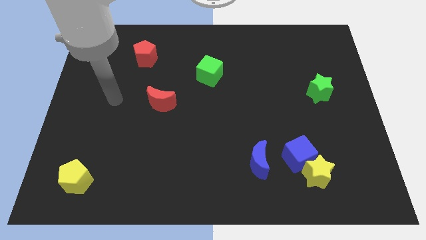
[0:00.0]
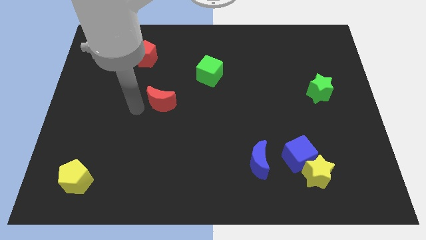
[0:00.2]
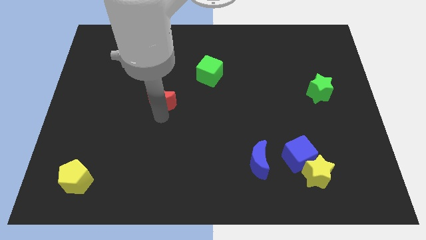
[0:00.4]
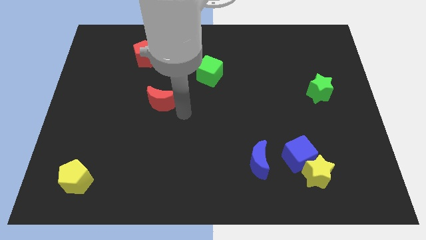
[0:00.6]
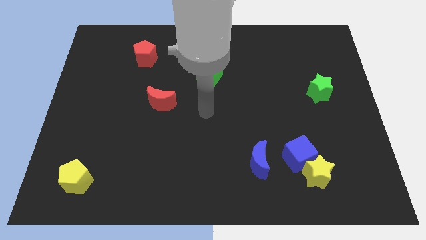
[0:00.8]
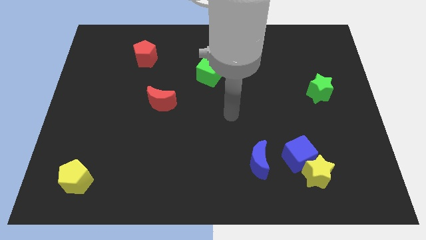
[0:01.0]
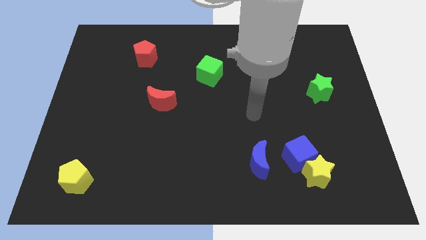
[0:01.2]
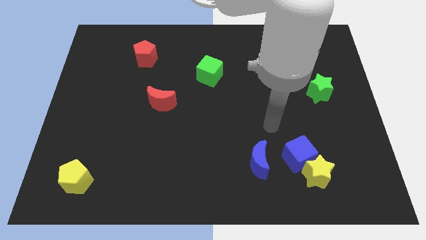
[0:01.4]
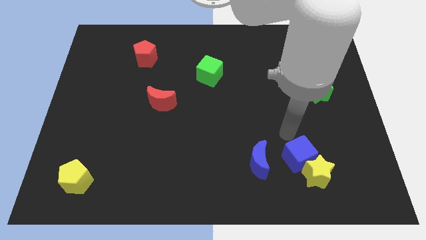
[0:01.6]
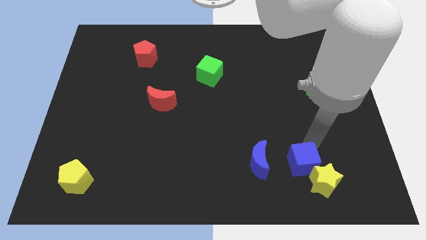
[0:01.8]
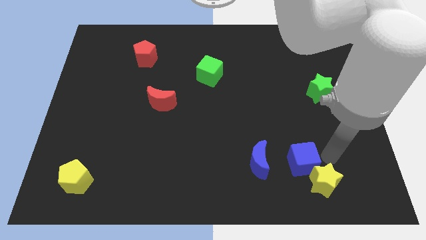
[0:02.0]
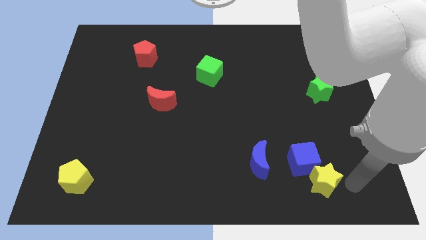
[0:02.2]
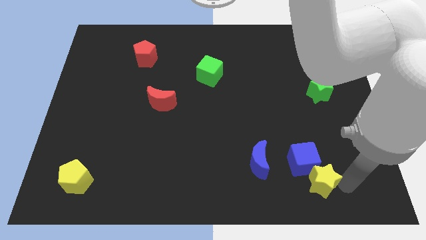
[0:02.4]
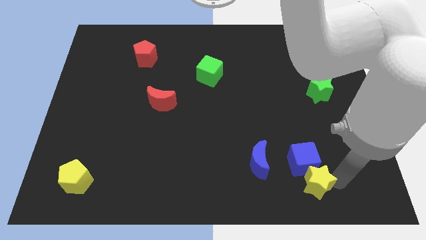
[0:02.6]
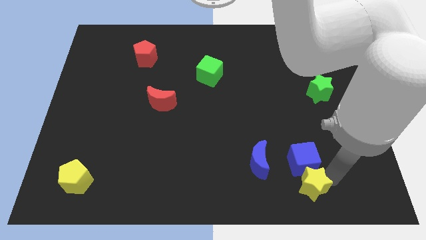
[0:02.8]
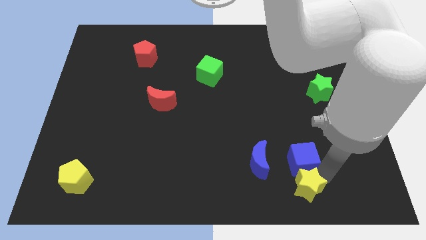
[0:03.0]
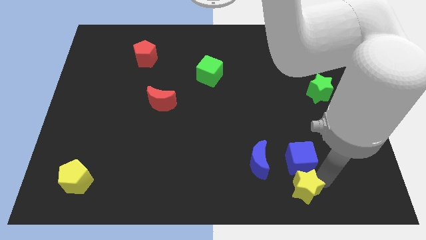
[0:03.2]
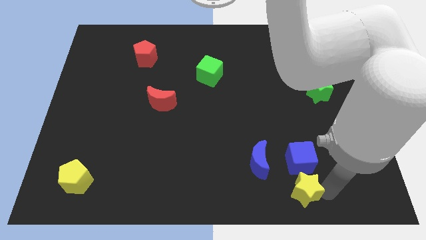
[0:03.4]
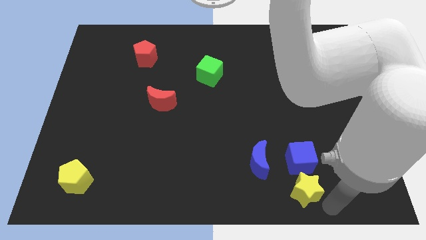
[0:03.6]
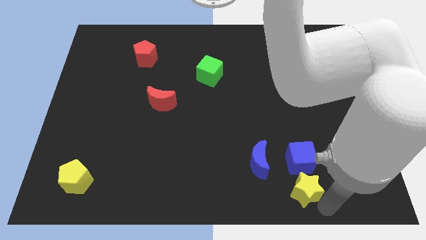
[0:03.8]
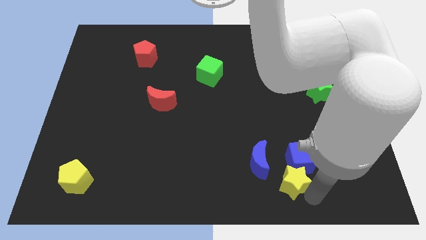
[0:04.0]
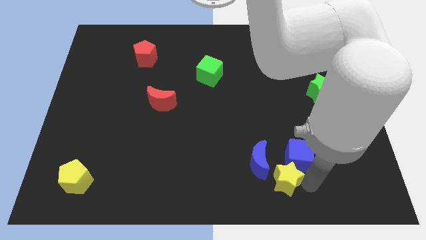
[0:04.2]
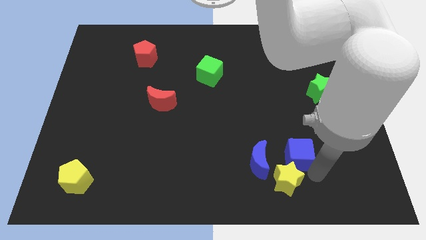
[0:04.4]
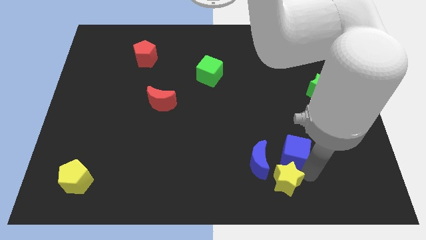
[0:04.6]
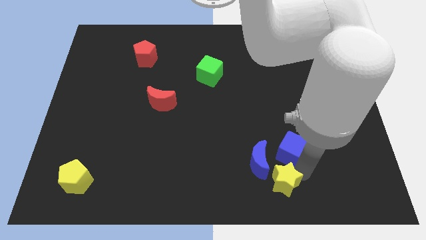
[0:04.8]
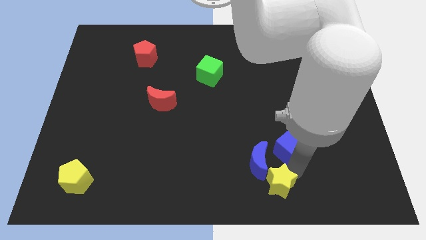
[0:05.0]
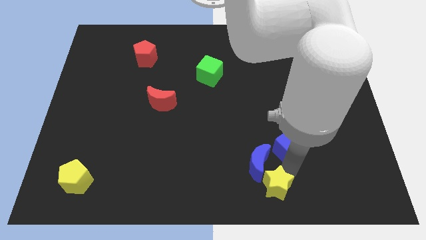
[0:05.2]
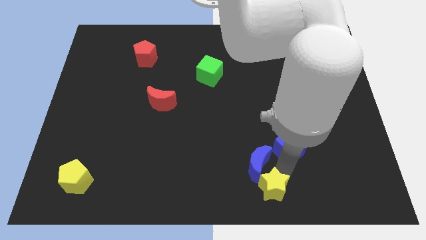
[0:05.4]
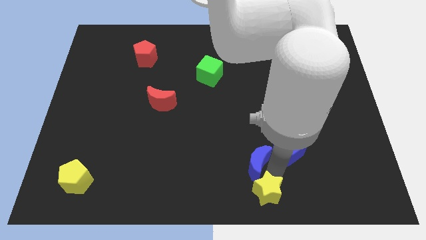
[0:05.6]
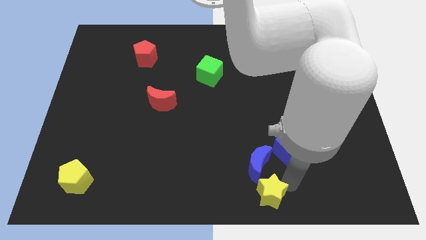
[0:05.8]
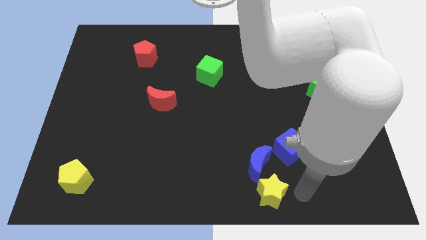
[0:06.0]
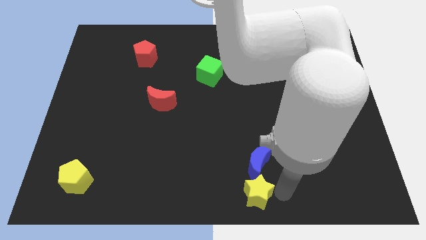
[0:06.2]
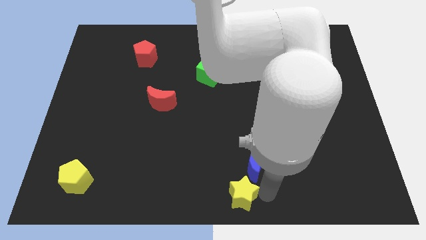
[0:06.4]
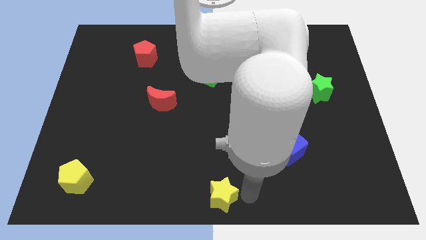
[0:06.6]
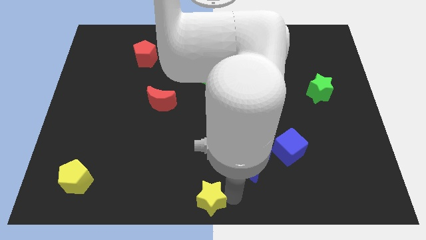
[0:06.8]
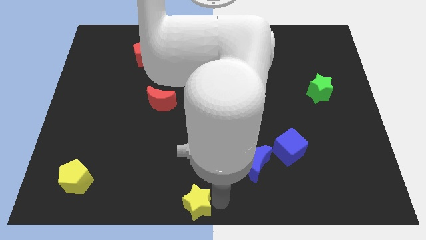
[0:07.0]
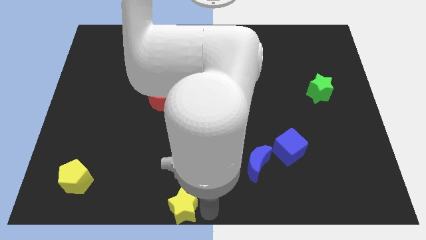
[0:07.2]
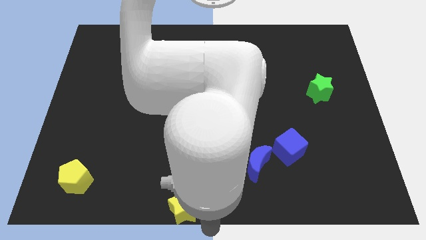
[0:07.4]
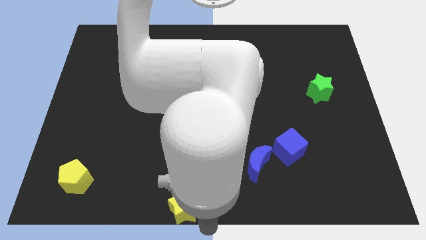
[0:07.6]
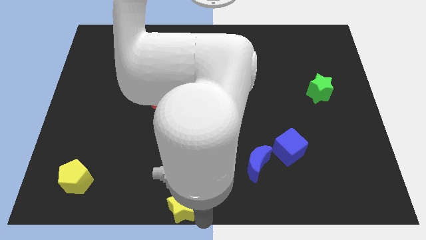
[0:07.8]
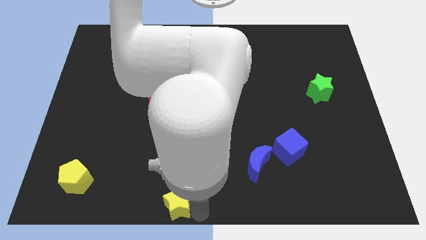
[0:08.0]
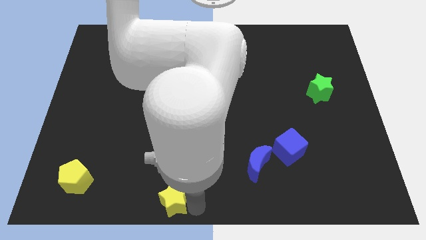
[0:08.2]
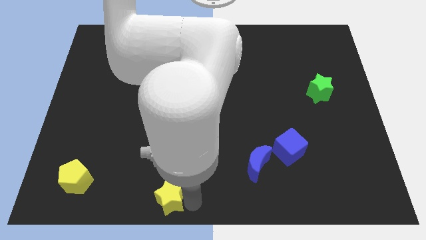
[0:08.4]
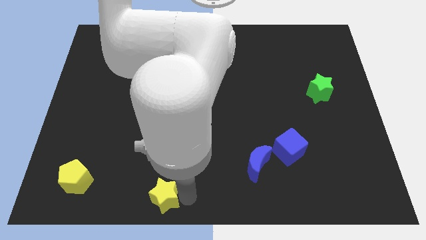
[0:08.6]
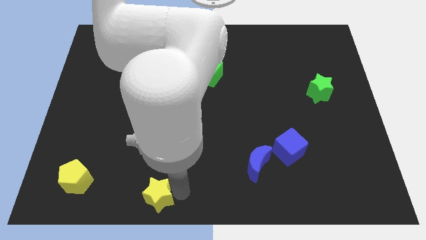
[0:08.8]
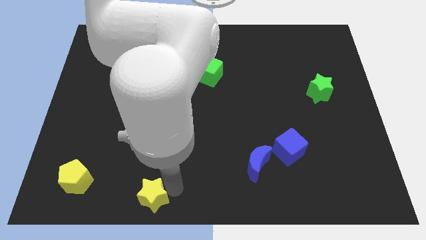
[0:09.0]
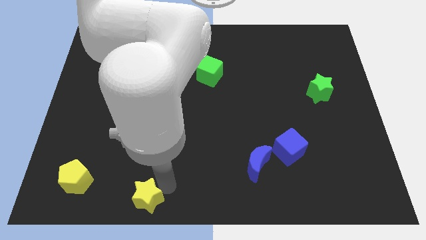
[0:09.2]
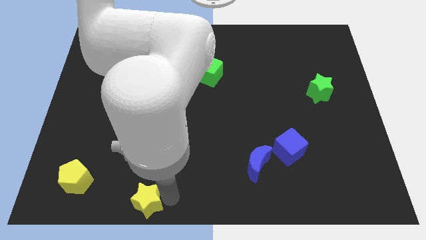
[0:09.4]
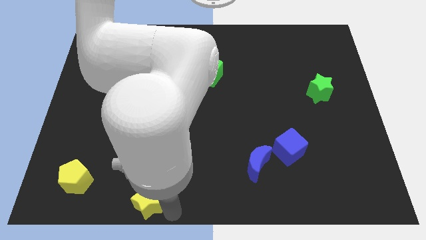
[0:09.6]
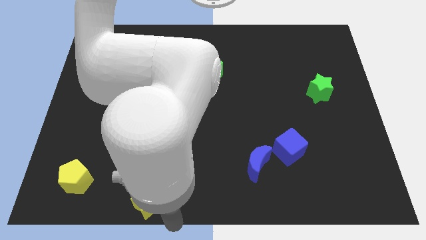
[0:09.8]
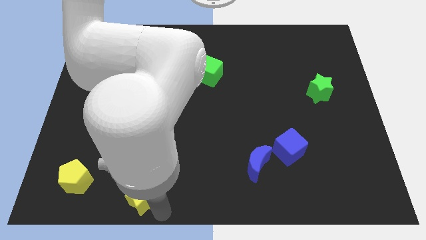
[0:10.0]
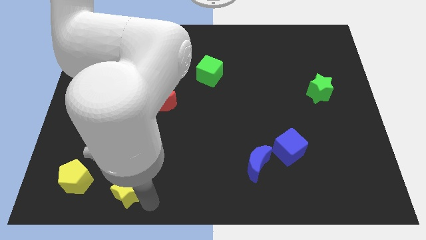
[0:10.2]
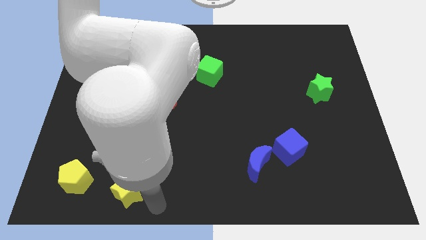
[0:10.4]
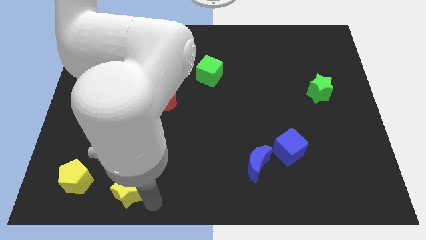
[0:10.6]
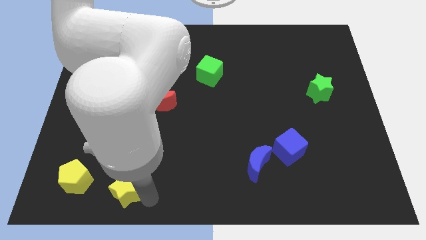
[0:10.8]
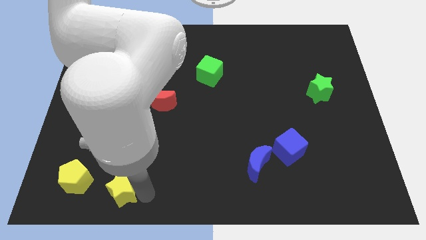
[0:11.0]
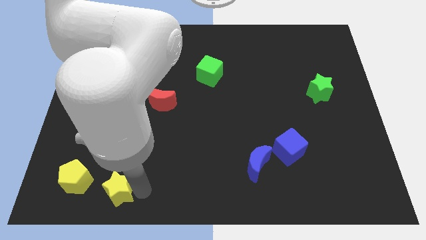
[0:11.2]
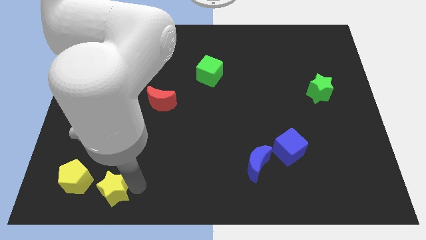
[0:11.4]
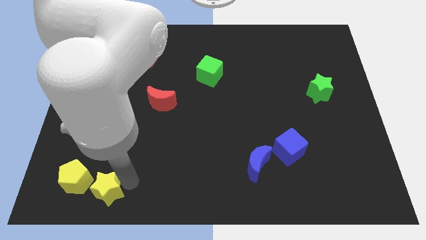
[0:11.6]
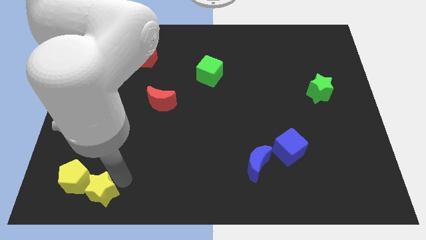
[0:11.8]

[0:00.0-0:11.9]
push the yellow star towards the yellow pentagon

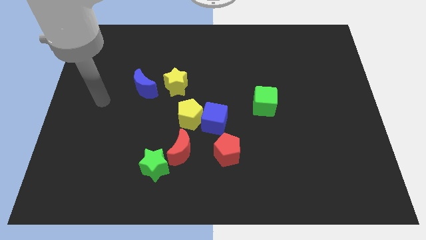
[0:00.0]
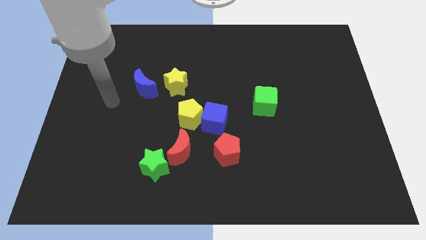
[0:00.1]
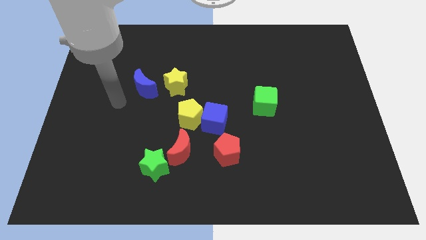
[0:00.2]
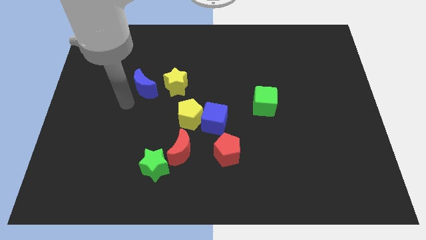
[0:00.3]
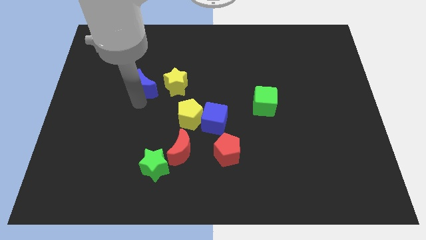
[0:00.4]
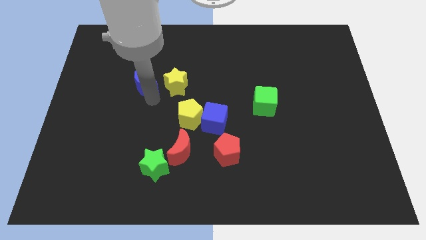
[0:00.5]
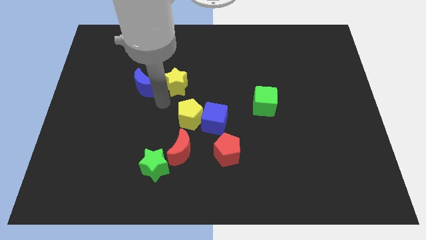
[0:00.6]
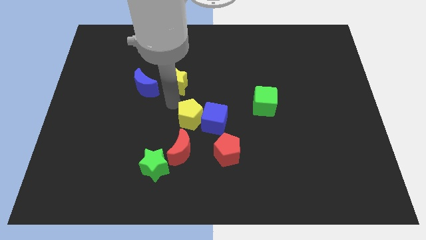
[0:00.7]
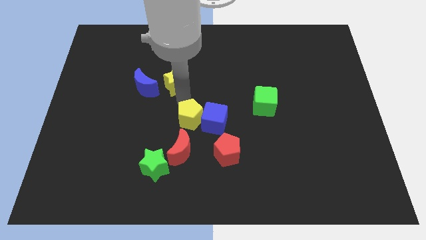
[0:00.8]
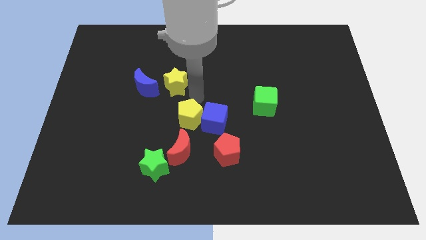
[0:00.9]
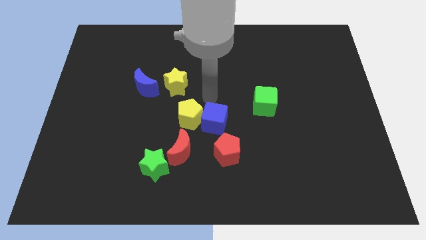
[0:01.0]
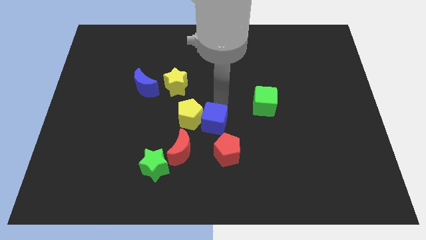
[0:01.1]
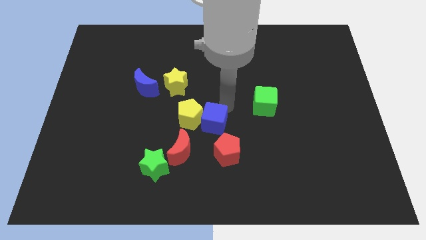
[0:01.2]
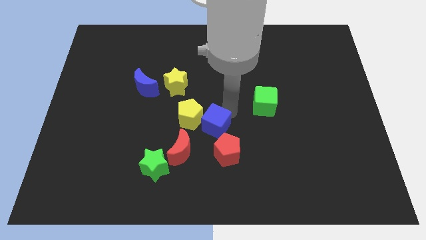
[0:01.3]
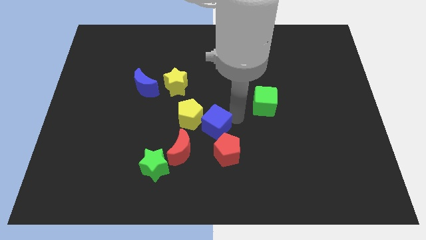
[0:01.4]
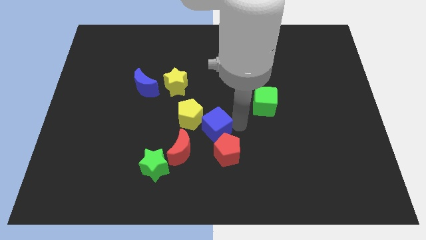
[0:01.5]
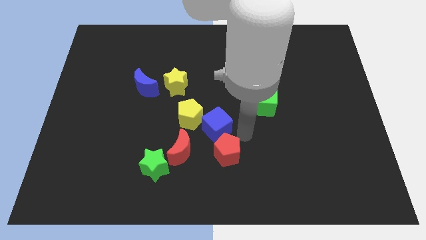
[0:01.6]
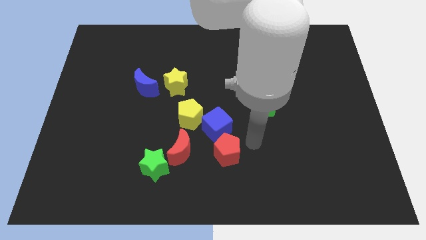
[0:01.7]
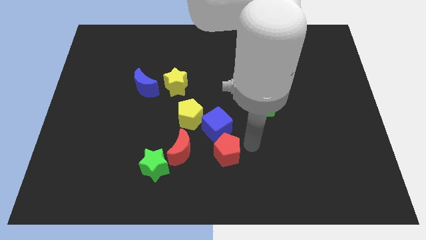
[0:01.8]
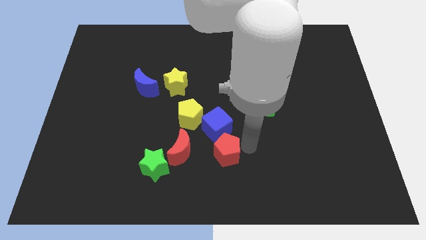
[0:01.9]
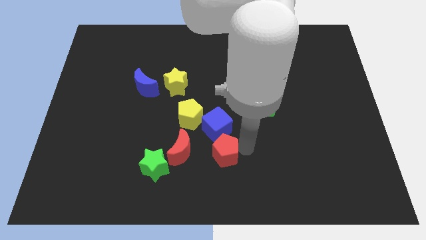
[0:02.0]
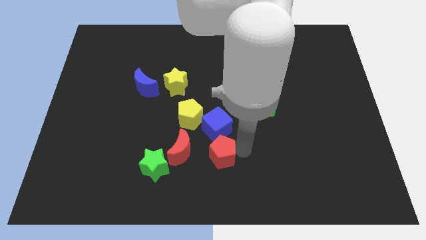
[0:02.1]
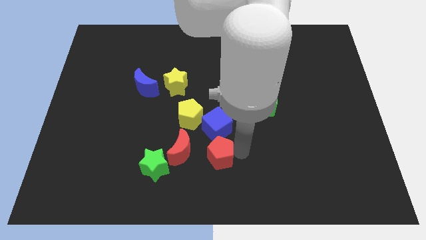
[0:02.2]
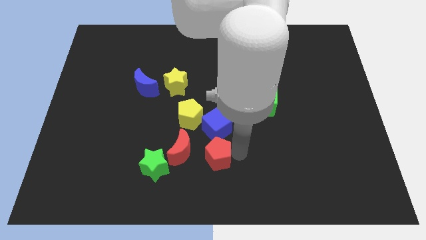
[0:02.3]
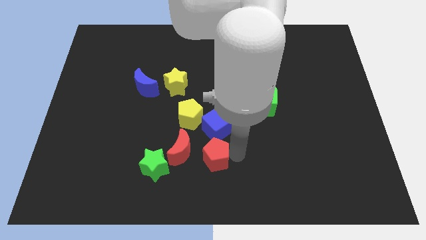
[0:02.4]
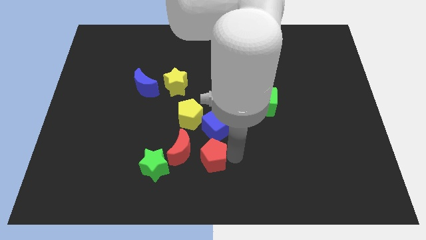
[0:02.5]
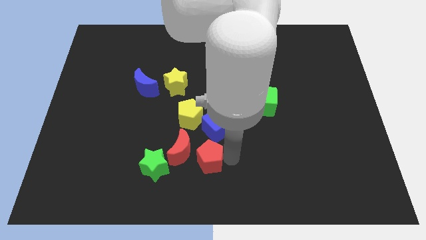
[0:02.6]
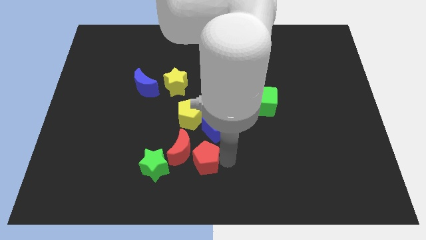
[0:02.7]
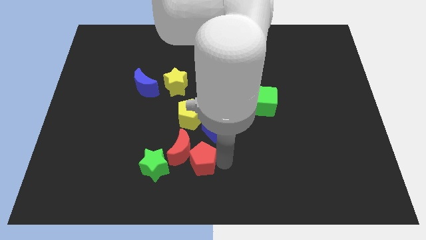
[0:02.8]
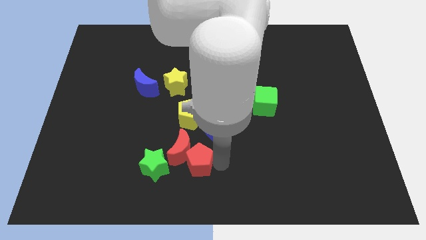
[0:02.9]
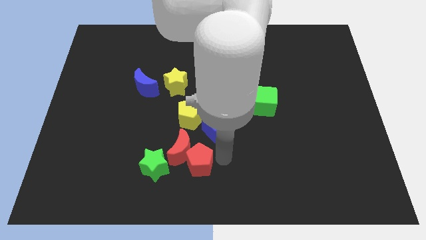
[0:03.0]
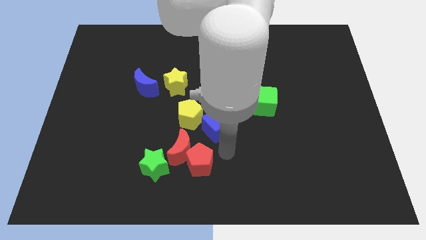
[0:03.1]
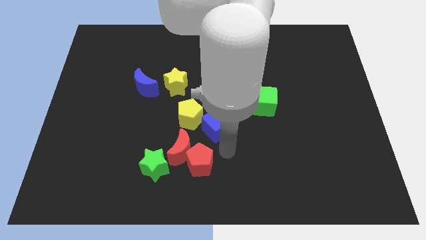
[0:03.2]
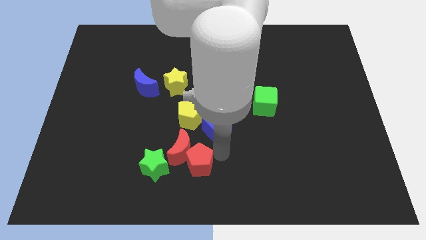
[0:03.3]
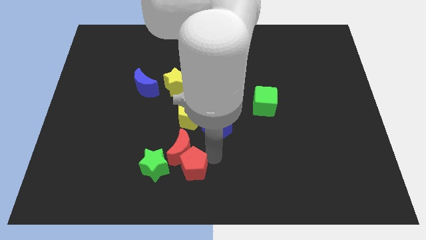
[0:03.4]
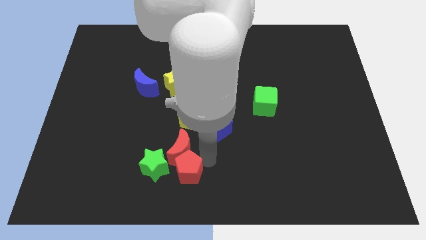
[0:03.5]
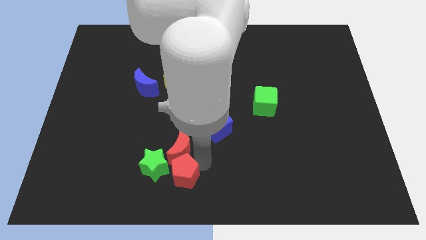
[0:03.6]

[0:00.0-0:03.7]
slide the red pentagon close to the green star
